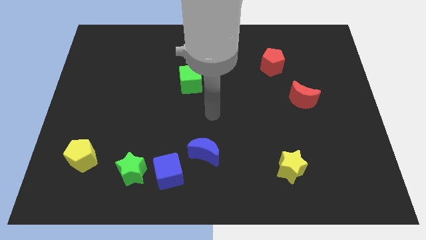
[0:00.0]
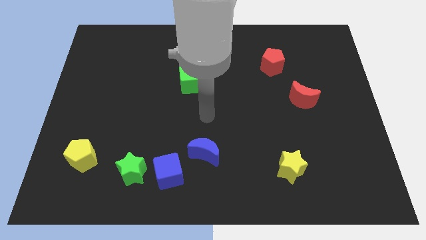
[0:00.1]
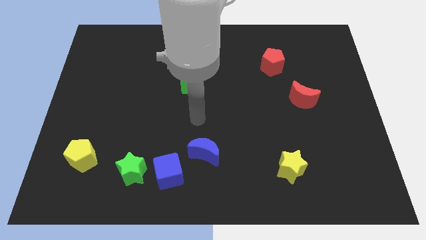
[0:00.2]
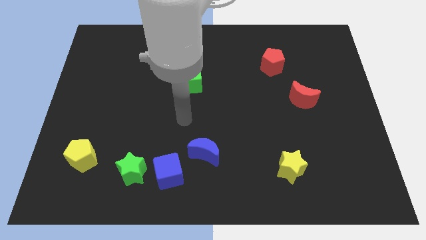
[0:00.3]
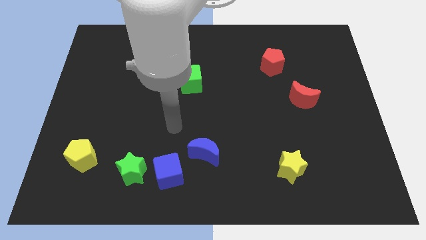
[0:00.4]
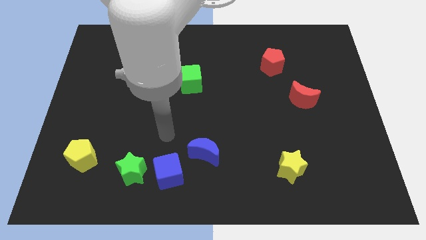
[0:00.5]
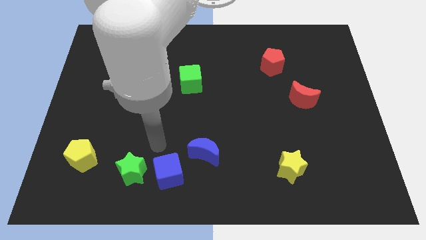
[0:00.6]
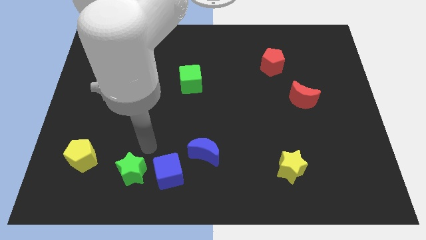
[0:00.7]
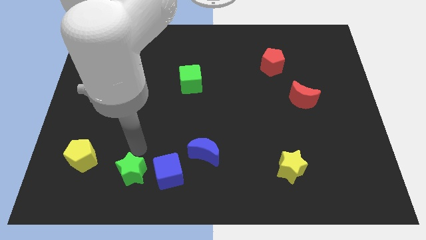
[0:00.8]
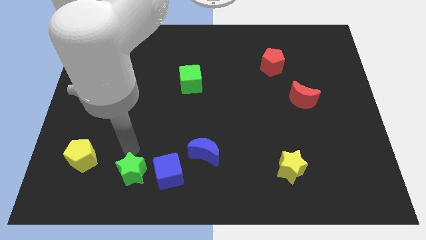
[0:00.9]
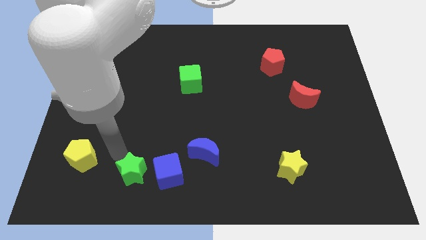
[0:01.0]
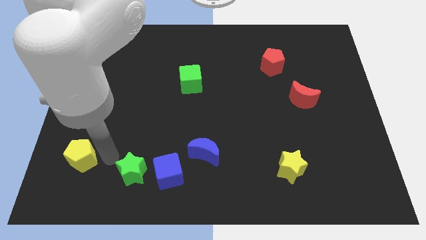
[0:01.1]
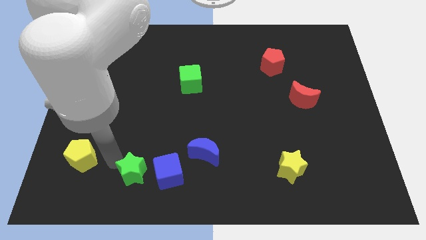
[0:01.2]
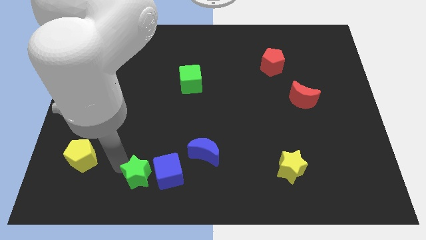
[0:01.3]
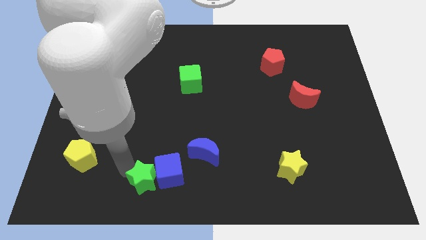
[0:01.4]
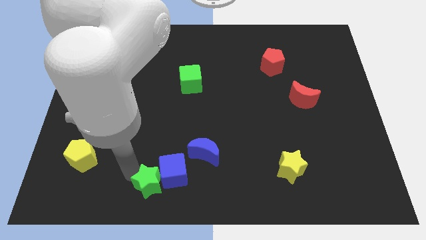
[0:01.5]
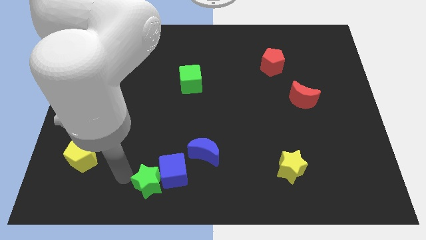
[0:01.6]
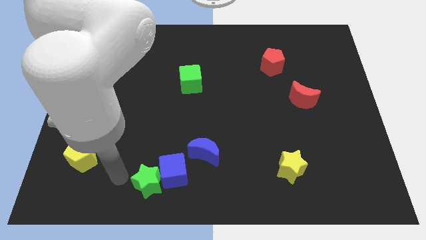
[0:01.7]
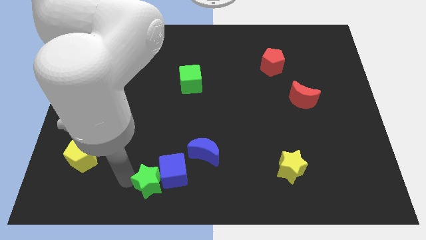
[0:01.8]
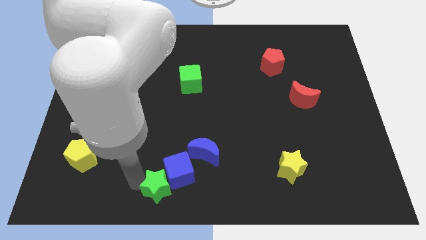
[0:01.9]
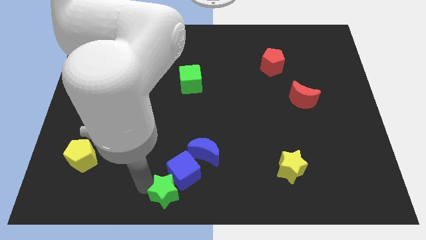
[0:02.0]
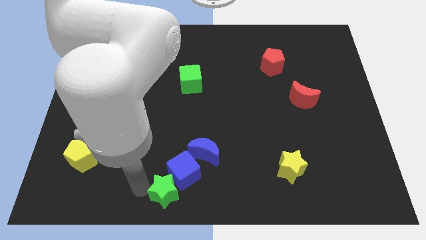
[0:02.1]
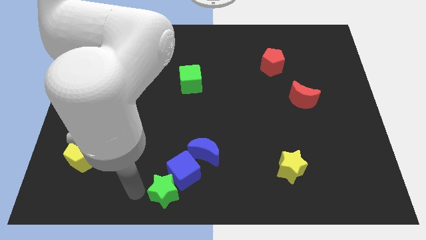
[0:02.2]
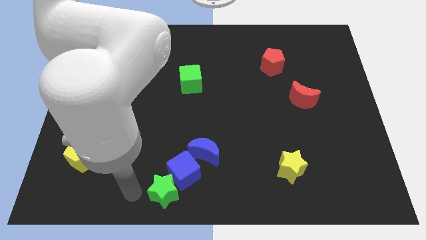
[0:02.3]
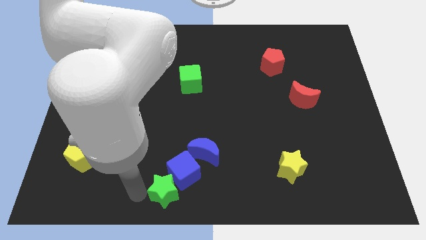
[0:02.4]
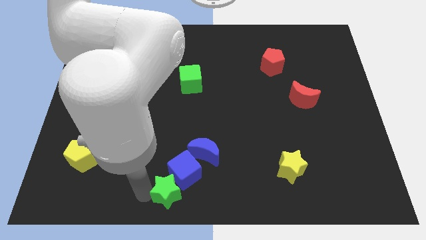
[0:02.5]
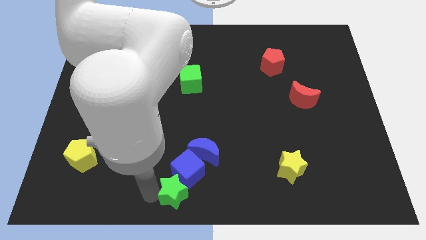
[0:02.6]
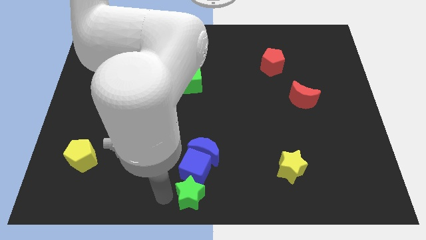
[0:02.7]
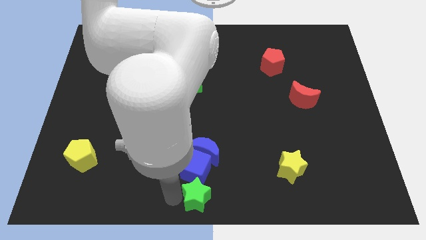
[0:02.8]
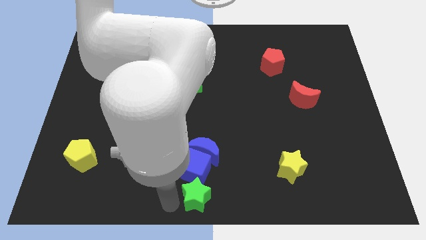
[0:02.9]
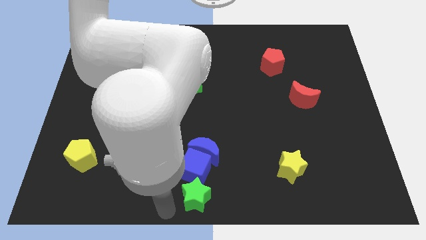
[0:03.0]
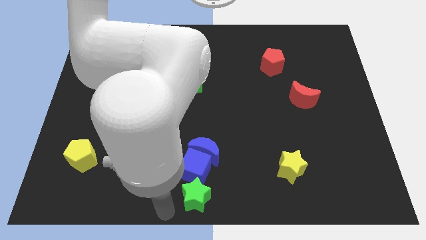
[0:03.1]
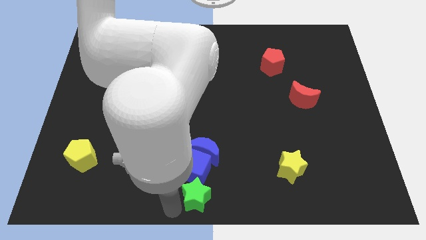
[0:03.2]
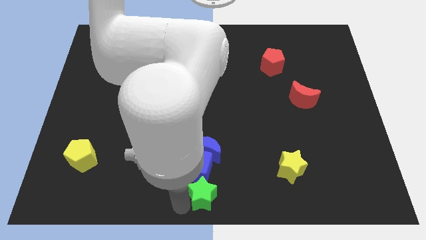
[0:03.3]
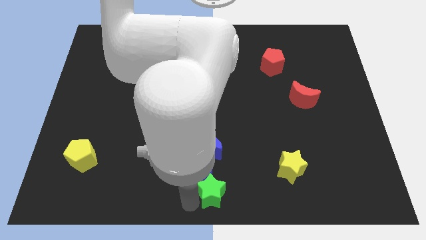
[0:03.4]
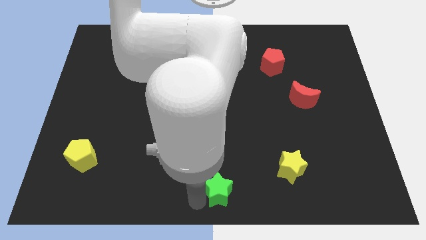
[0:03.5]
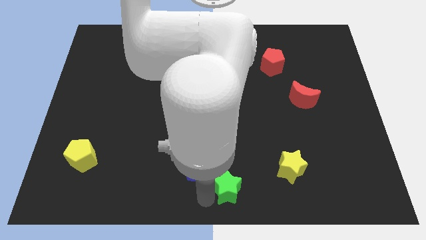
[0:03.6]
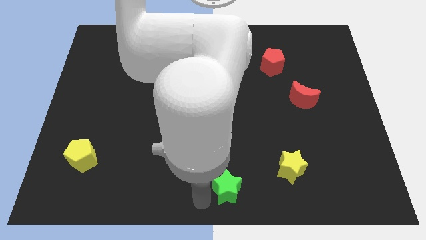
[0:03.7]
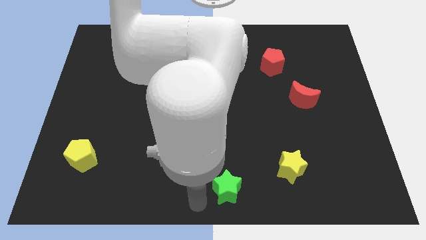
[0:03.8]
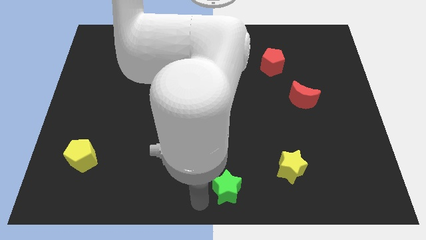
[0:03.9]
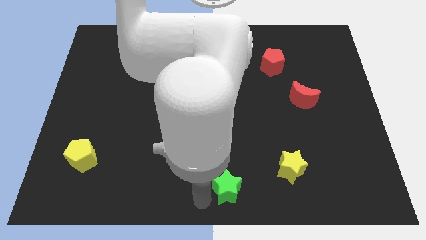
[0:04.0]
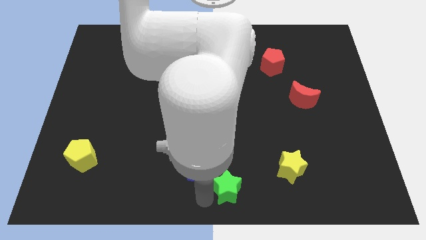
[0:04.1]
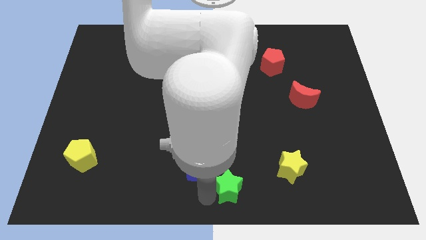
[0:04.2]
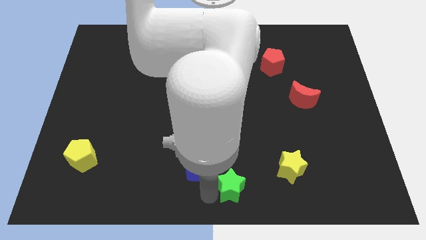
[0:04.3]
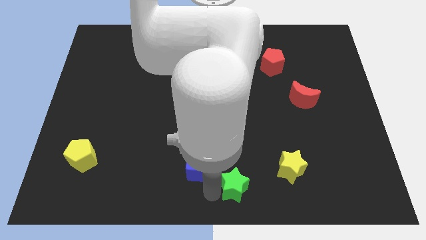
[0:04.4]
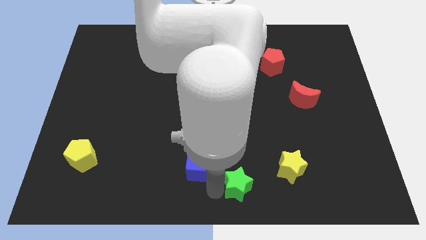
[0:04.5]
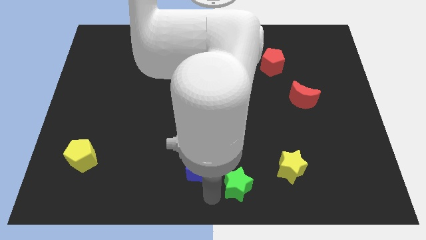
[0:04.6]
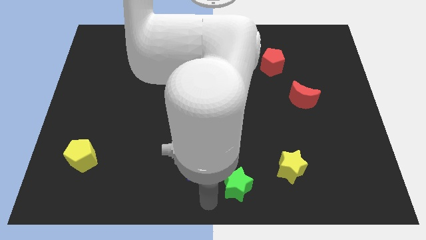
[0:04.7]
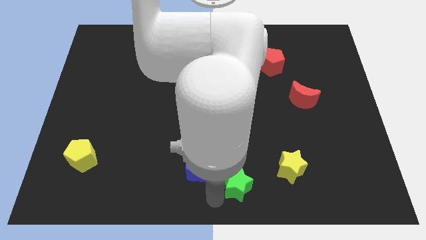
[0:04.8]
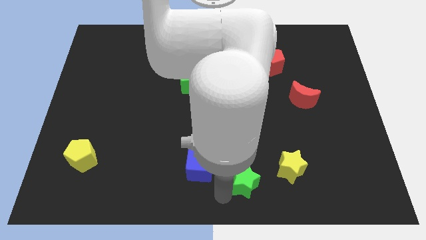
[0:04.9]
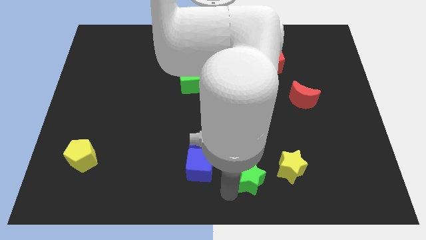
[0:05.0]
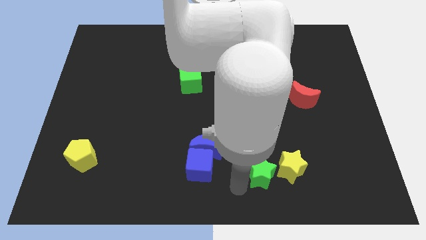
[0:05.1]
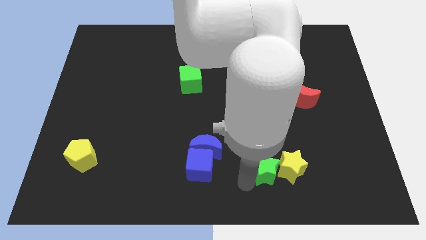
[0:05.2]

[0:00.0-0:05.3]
move the green star towards the yellow star

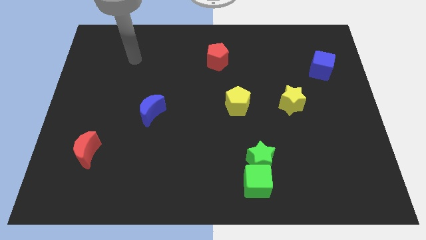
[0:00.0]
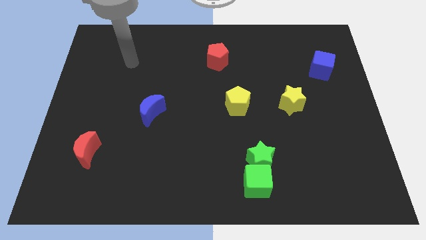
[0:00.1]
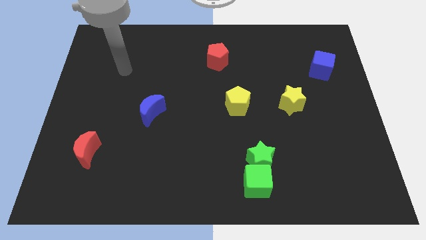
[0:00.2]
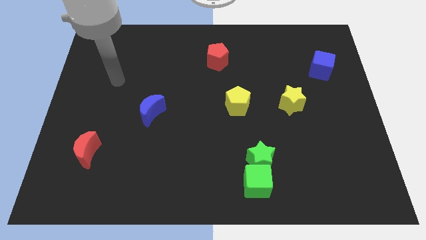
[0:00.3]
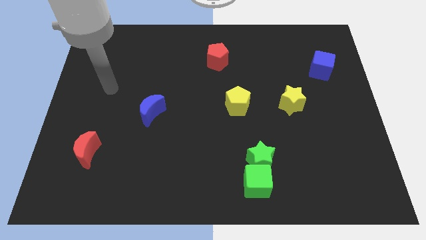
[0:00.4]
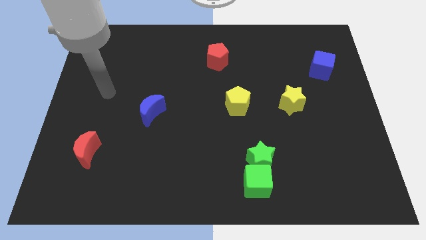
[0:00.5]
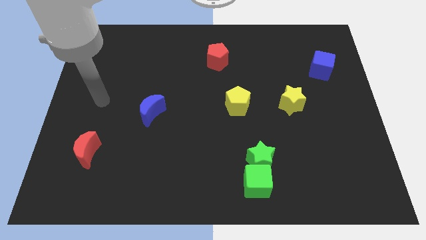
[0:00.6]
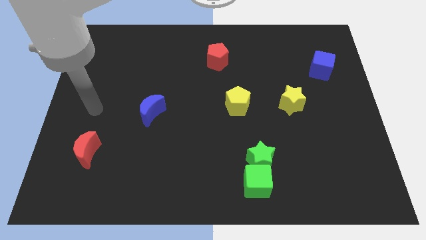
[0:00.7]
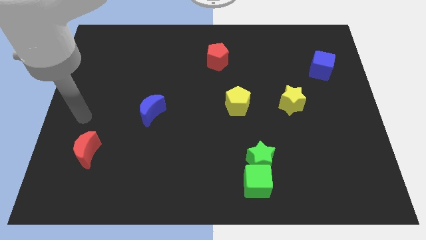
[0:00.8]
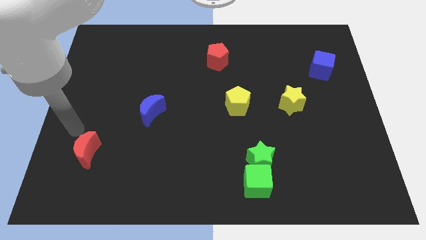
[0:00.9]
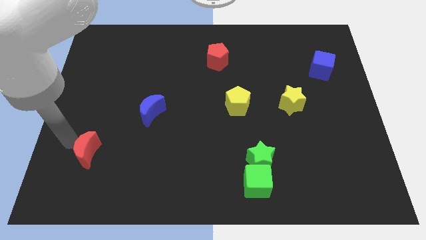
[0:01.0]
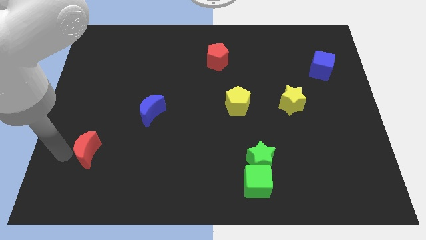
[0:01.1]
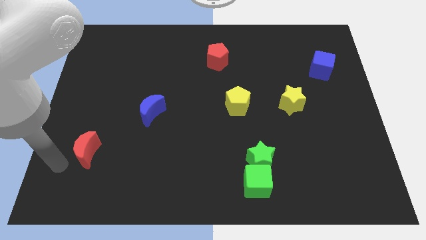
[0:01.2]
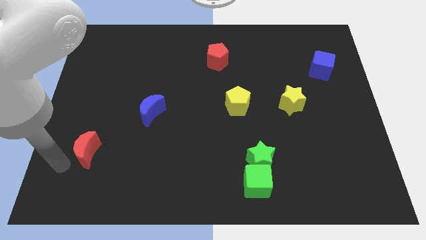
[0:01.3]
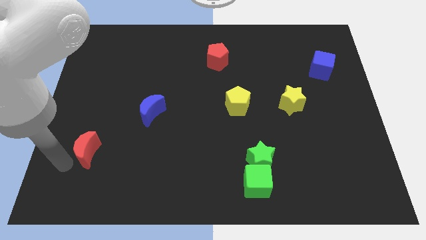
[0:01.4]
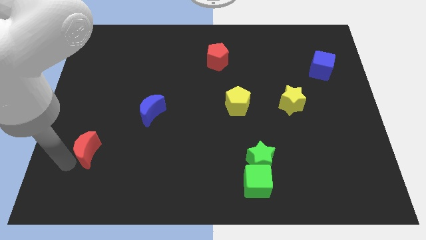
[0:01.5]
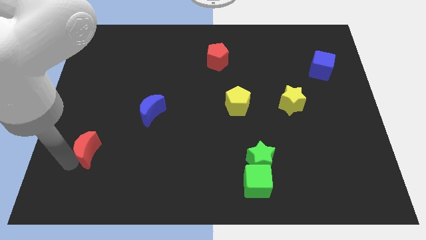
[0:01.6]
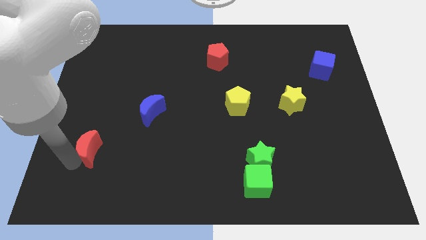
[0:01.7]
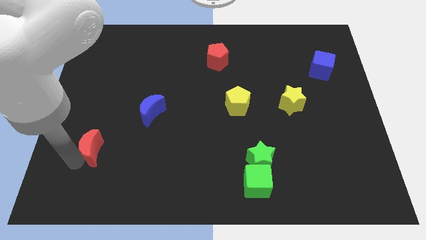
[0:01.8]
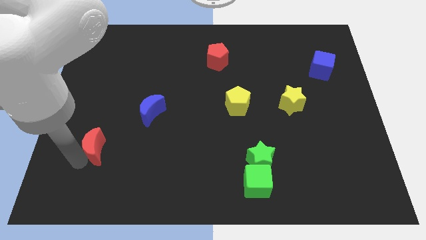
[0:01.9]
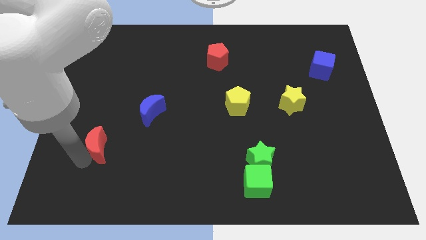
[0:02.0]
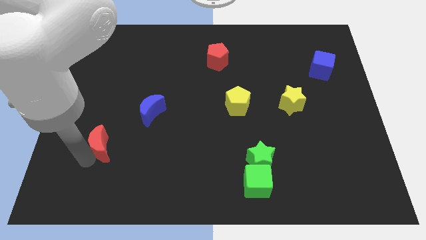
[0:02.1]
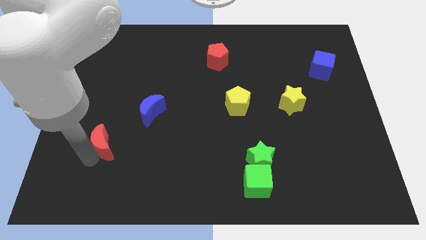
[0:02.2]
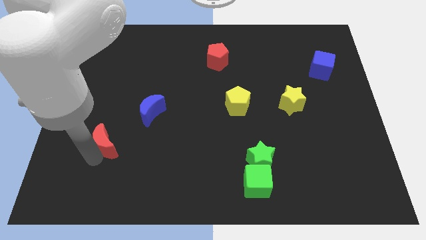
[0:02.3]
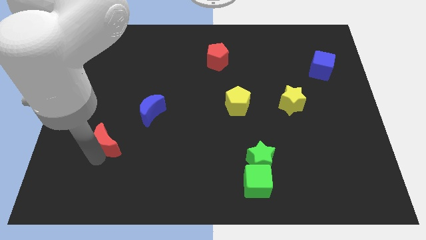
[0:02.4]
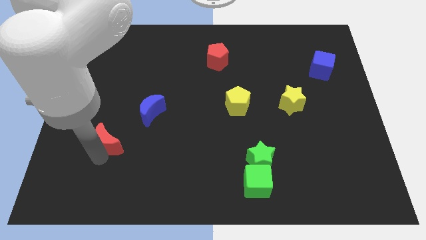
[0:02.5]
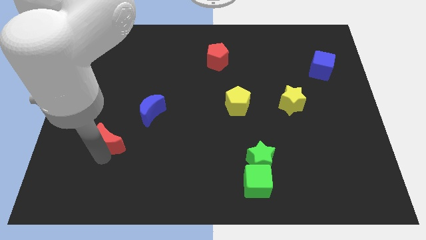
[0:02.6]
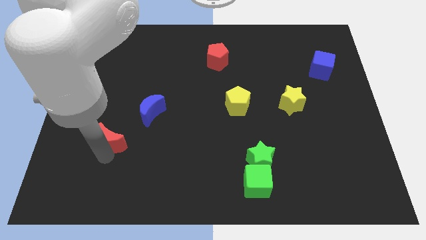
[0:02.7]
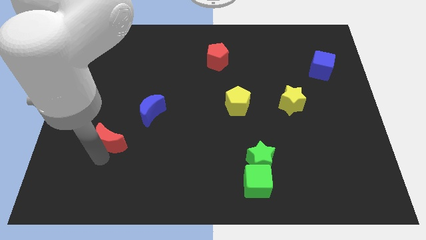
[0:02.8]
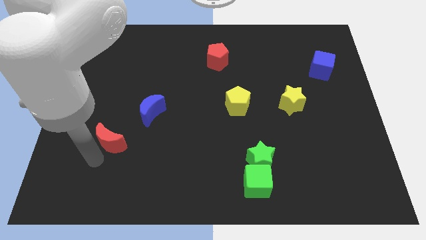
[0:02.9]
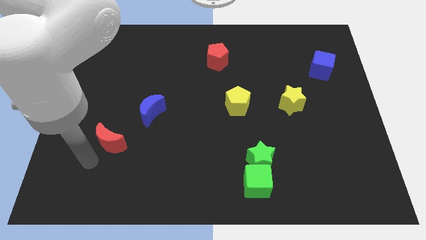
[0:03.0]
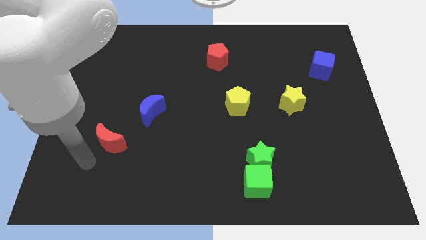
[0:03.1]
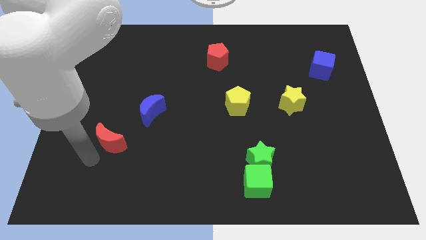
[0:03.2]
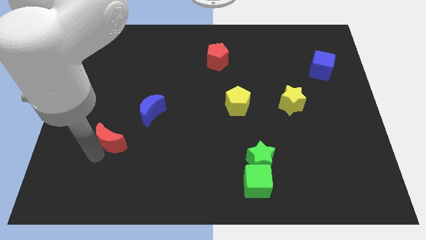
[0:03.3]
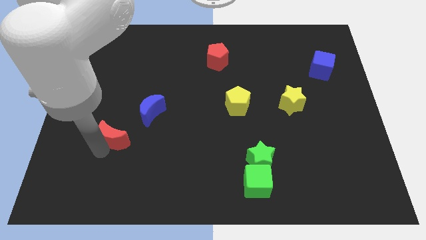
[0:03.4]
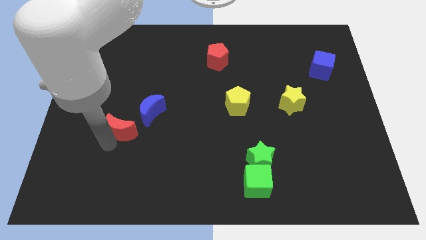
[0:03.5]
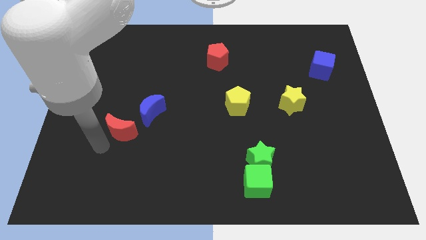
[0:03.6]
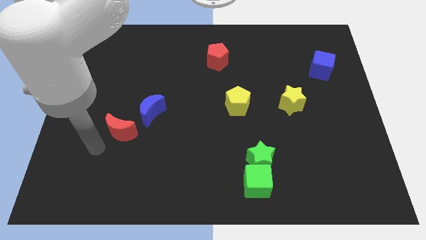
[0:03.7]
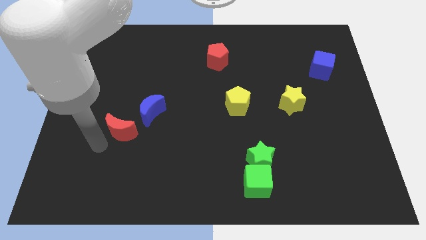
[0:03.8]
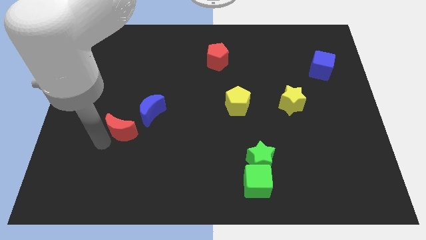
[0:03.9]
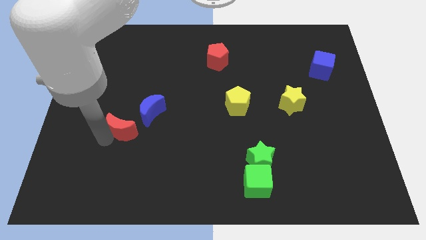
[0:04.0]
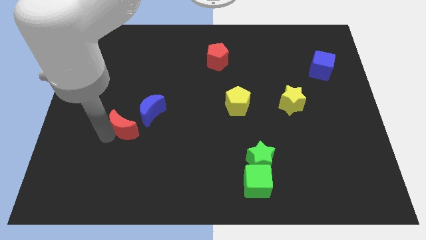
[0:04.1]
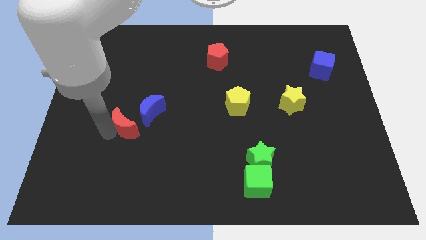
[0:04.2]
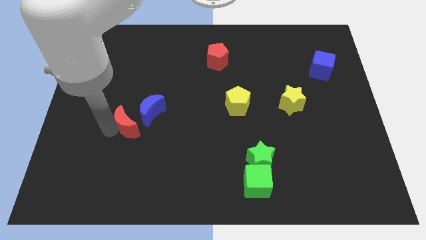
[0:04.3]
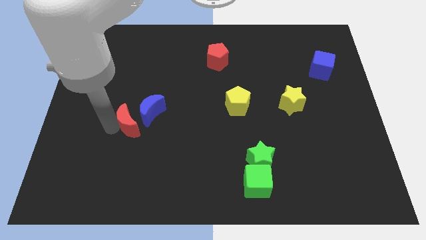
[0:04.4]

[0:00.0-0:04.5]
slide the red moon to the blue moon
